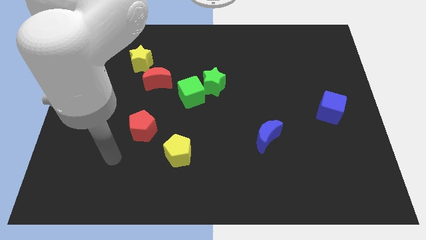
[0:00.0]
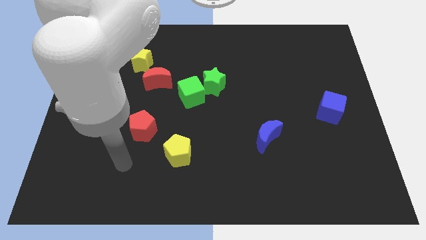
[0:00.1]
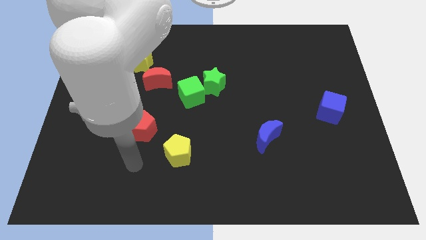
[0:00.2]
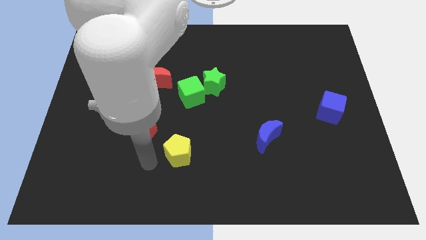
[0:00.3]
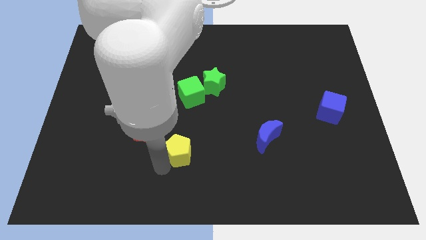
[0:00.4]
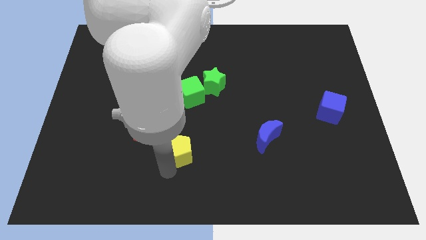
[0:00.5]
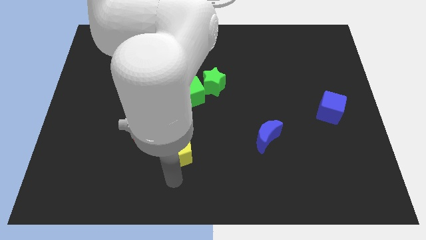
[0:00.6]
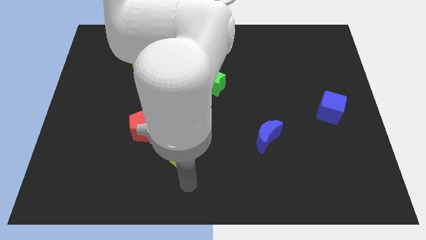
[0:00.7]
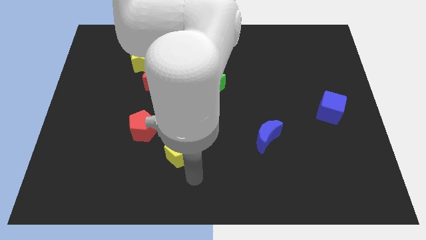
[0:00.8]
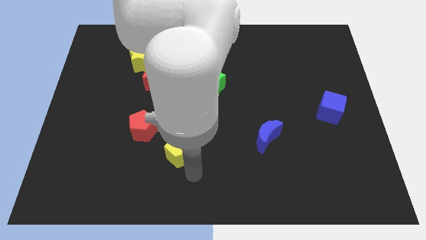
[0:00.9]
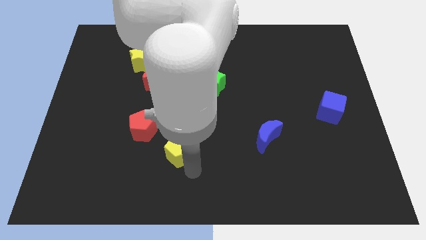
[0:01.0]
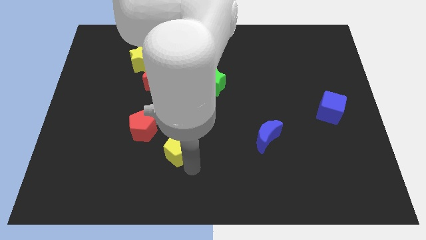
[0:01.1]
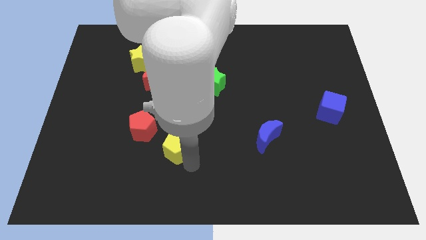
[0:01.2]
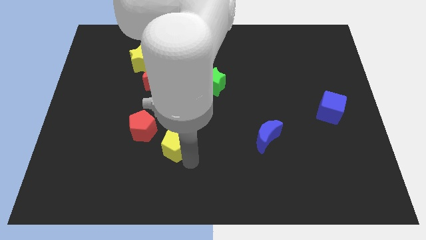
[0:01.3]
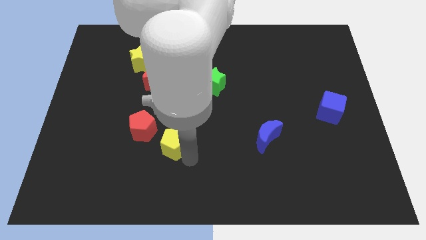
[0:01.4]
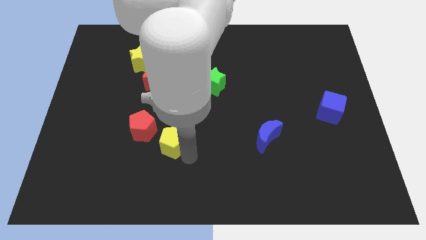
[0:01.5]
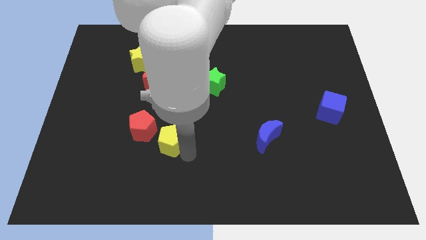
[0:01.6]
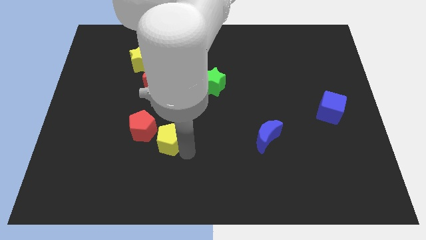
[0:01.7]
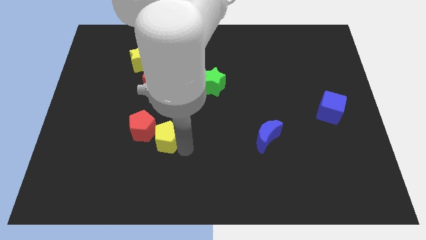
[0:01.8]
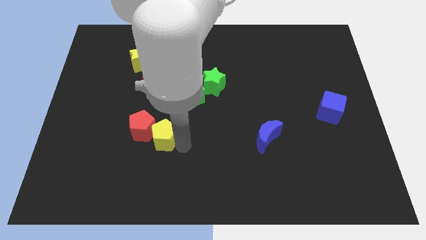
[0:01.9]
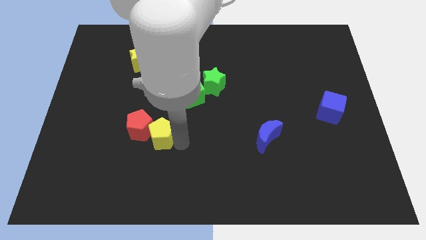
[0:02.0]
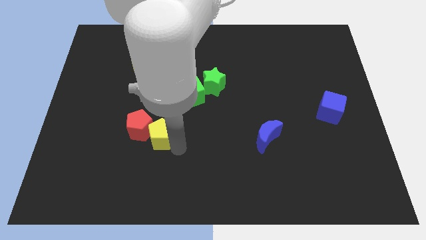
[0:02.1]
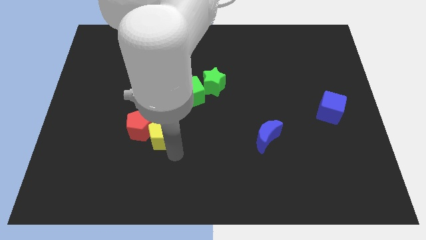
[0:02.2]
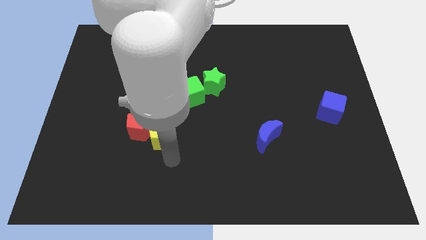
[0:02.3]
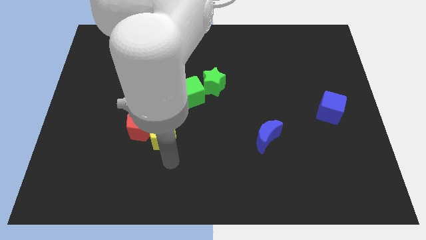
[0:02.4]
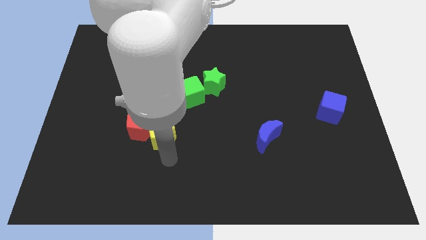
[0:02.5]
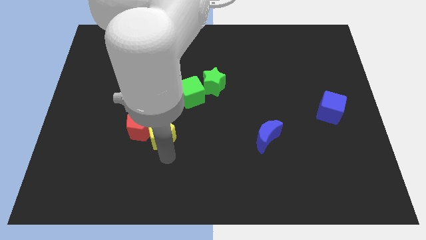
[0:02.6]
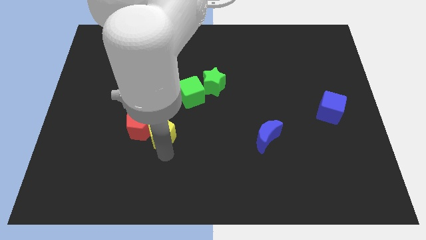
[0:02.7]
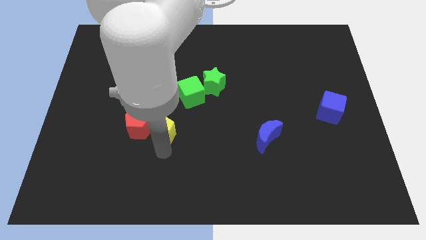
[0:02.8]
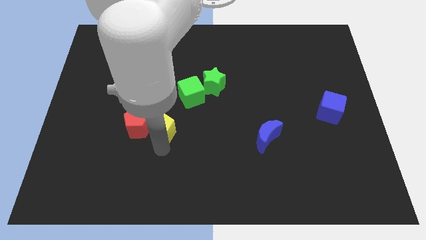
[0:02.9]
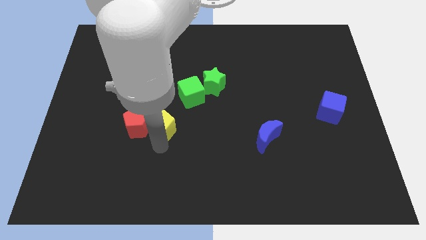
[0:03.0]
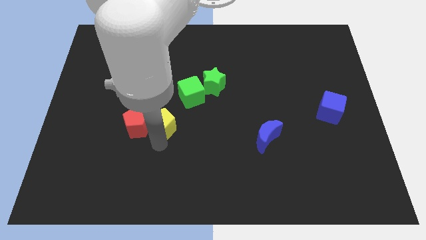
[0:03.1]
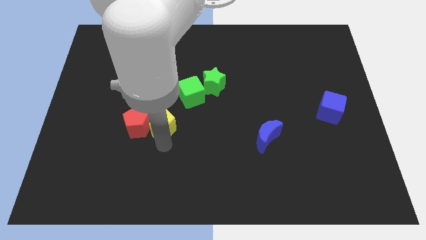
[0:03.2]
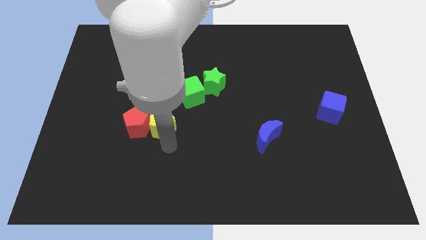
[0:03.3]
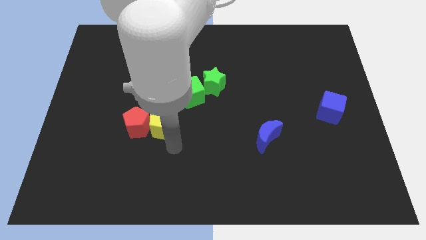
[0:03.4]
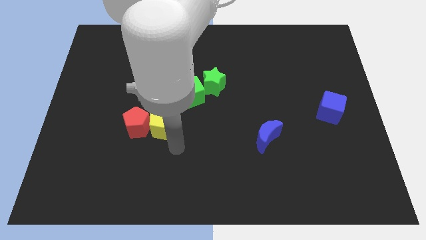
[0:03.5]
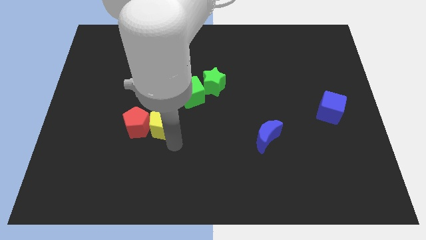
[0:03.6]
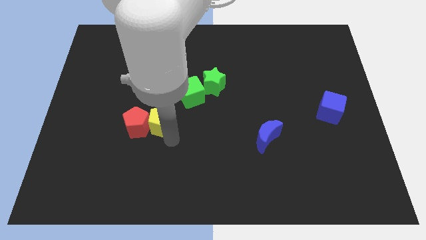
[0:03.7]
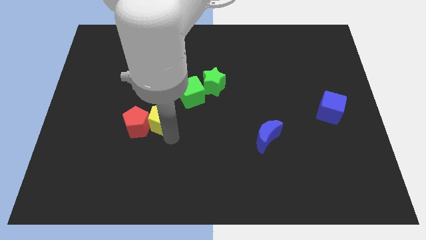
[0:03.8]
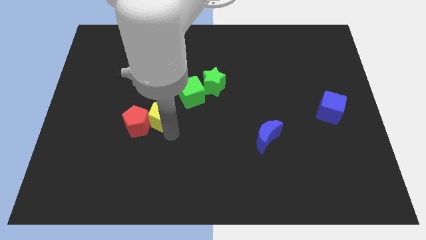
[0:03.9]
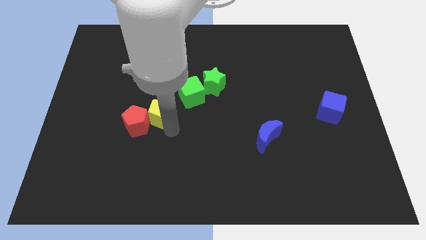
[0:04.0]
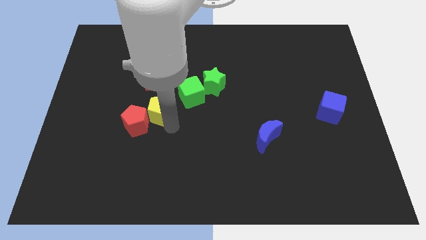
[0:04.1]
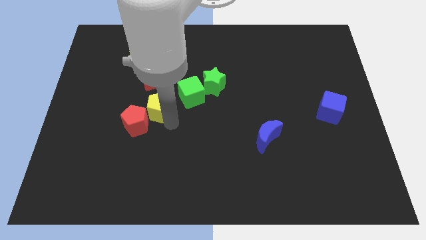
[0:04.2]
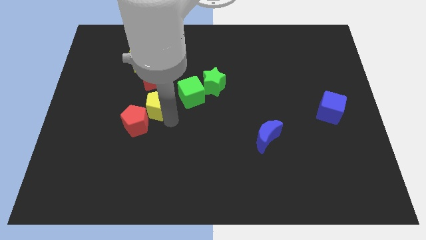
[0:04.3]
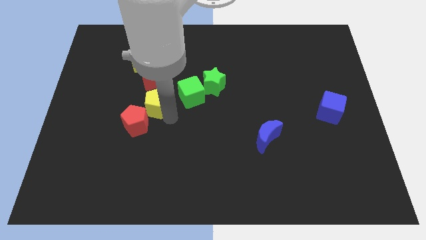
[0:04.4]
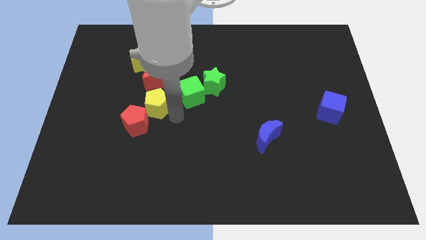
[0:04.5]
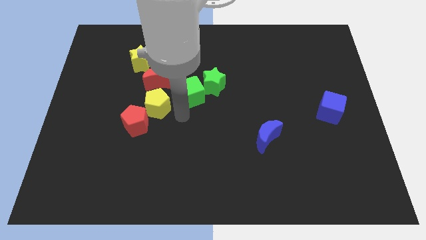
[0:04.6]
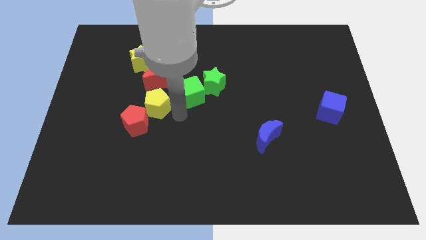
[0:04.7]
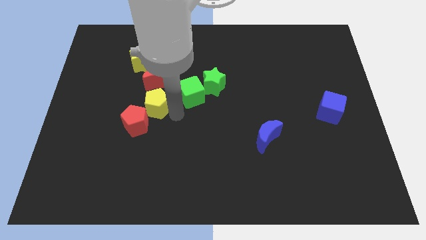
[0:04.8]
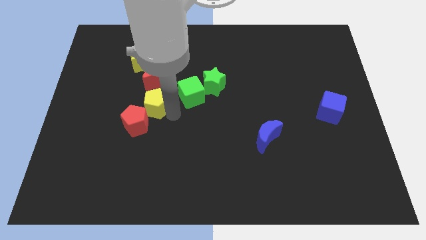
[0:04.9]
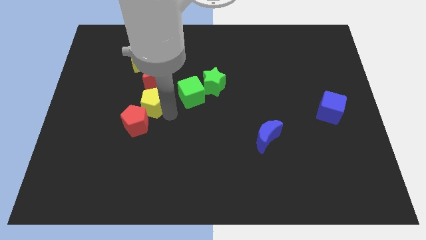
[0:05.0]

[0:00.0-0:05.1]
put the yellow pentagon to the bottom left of the red moon
